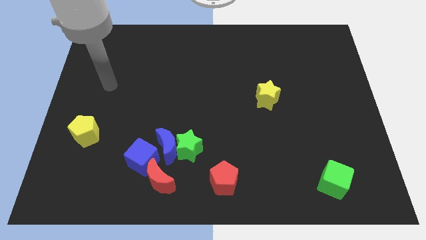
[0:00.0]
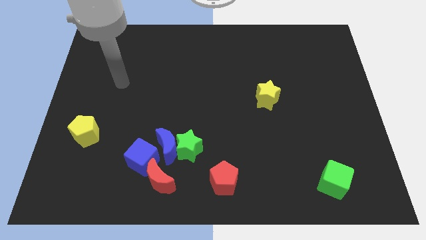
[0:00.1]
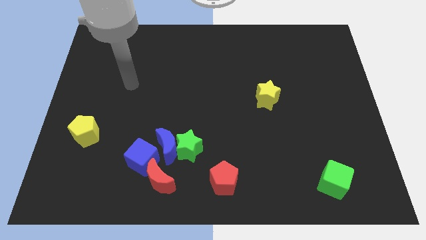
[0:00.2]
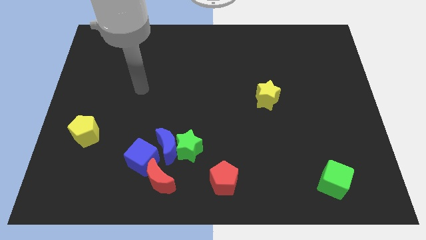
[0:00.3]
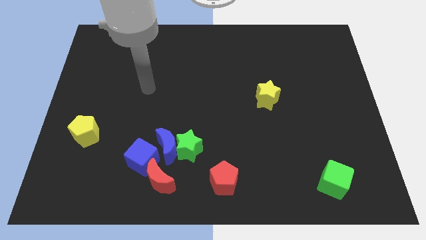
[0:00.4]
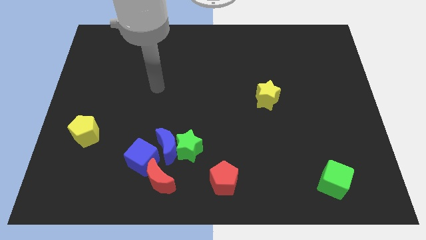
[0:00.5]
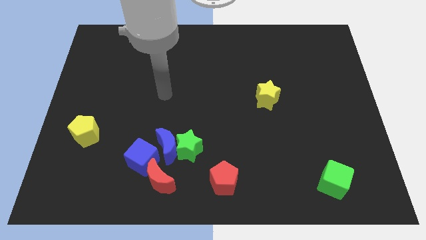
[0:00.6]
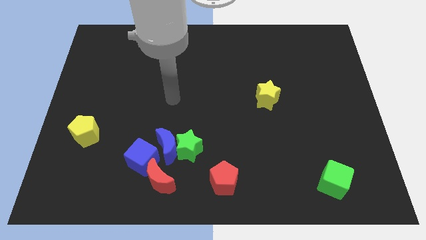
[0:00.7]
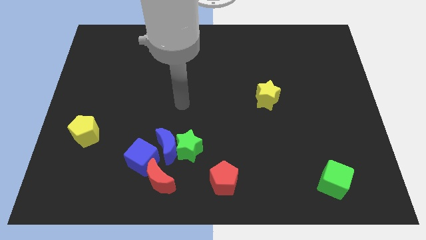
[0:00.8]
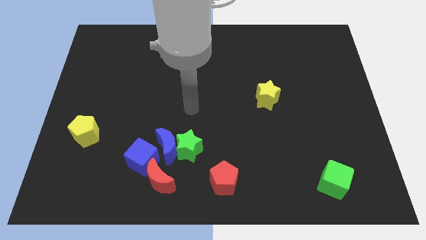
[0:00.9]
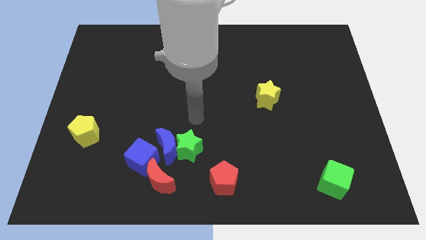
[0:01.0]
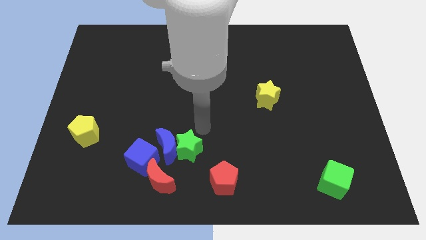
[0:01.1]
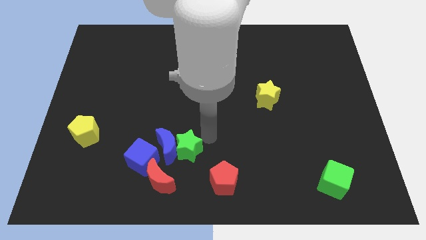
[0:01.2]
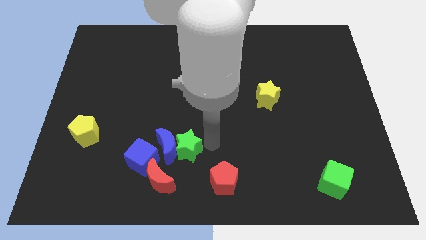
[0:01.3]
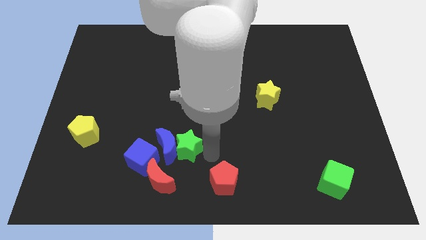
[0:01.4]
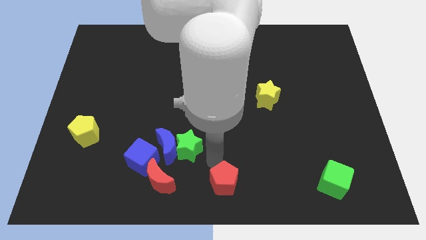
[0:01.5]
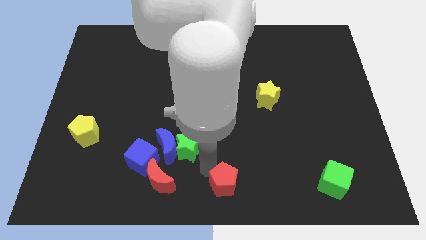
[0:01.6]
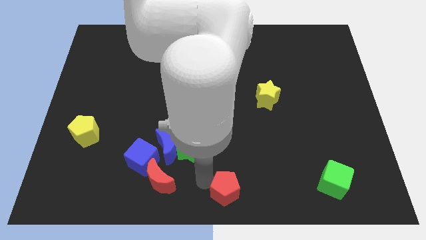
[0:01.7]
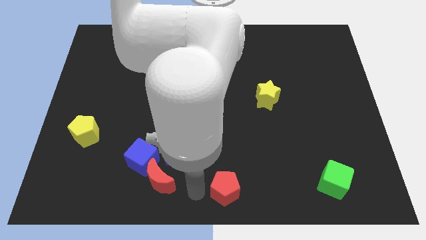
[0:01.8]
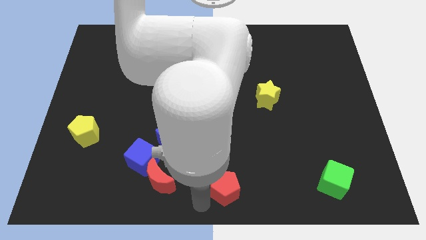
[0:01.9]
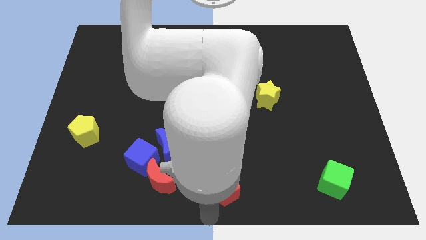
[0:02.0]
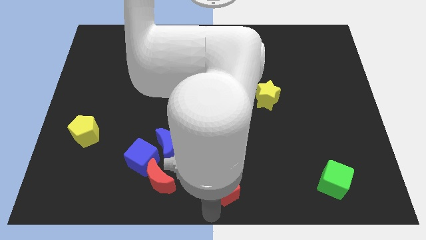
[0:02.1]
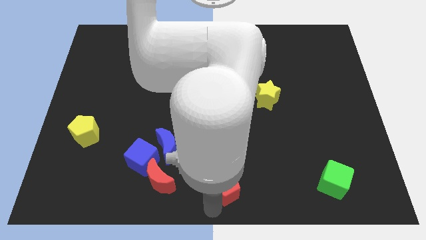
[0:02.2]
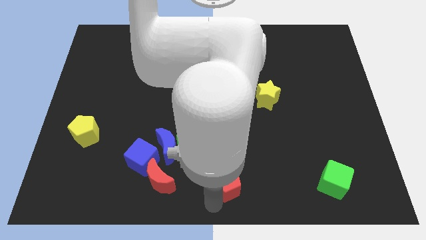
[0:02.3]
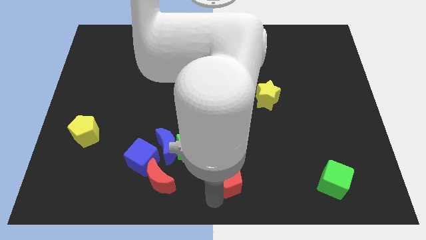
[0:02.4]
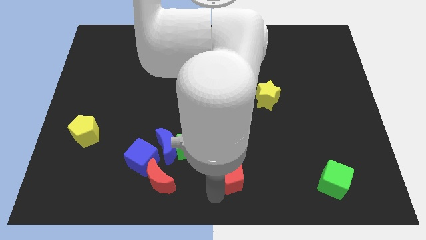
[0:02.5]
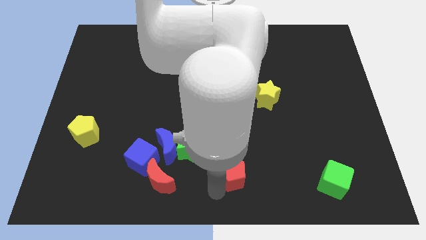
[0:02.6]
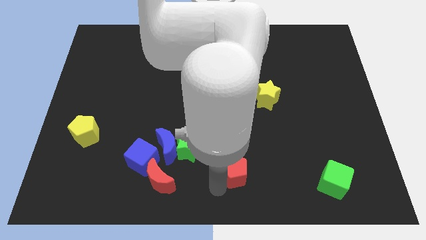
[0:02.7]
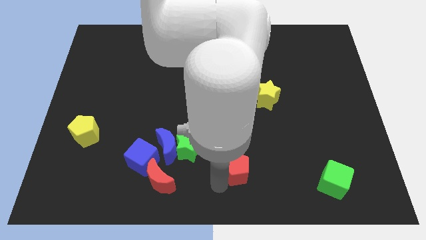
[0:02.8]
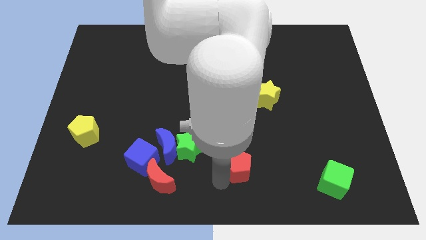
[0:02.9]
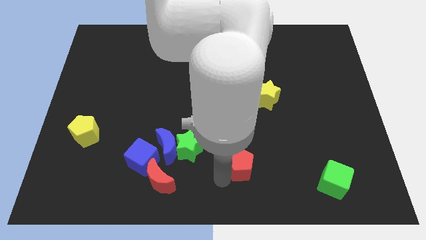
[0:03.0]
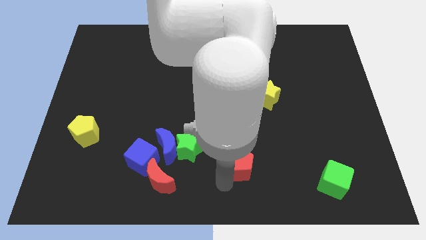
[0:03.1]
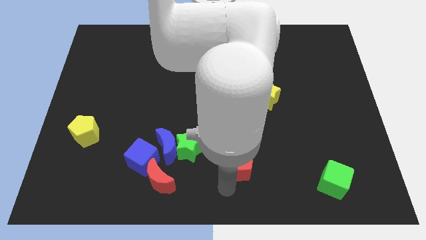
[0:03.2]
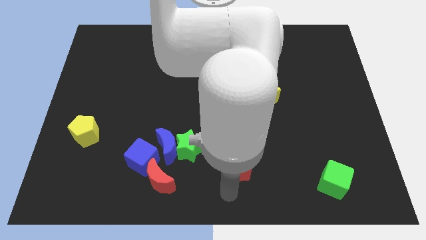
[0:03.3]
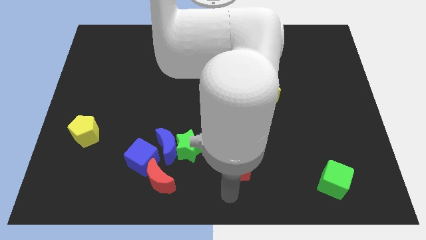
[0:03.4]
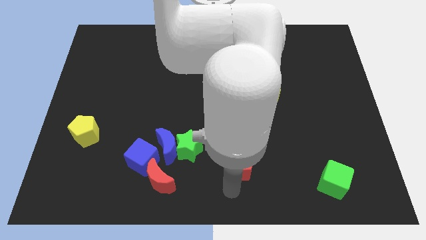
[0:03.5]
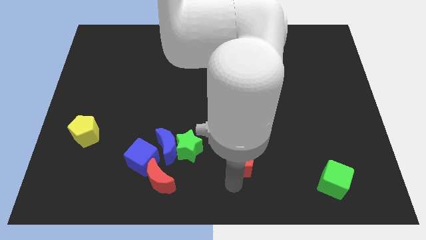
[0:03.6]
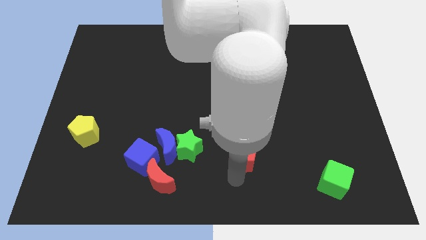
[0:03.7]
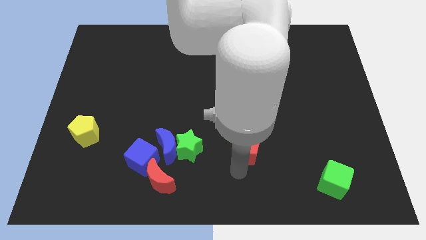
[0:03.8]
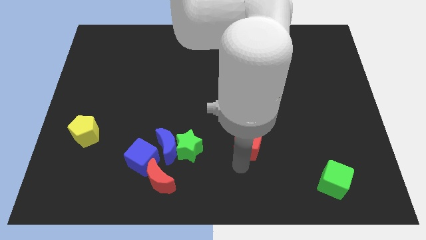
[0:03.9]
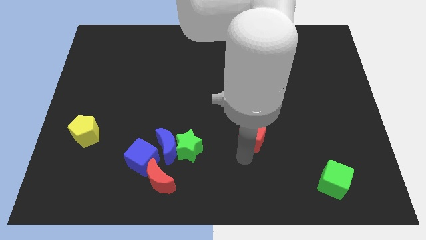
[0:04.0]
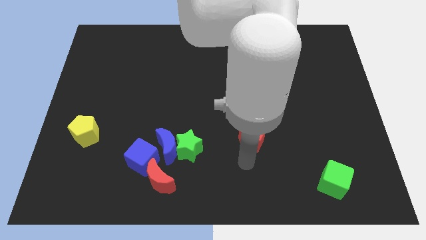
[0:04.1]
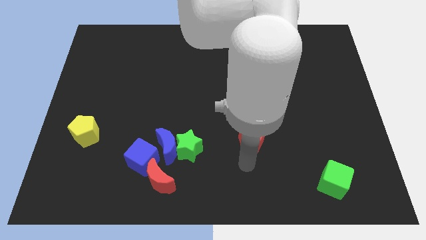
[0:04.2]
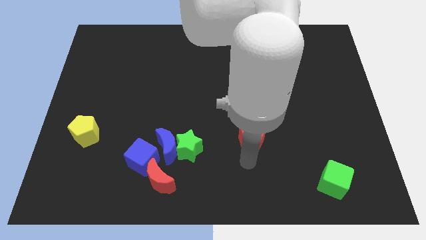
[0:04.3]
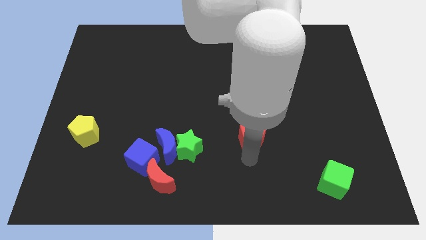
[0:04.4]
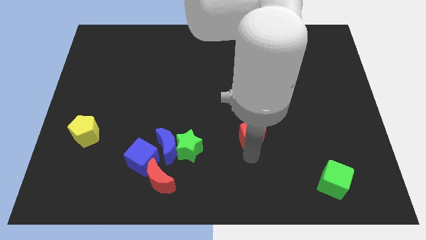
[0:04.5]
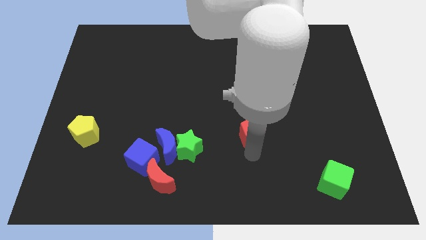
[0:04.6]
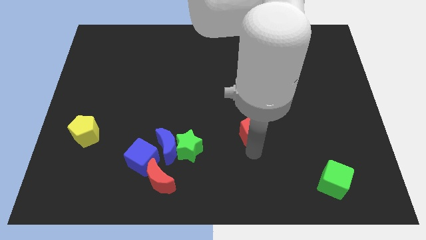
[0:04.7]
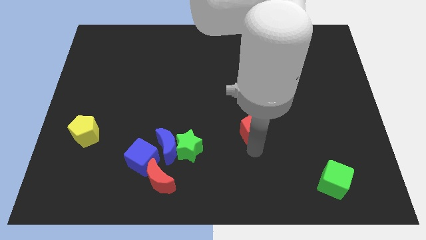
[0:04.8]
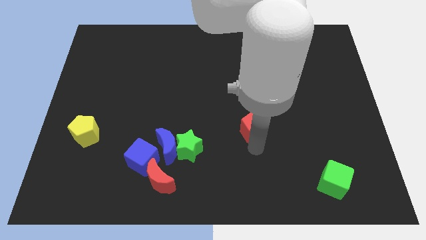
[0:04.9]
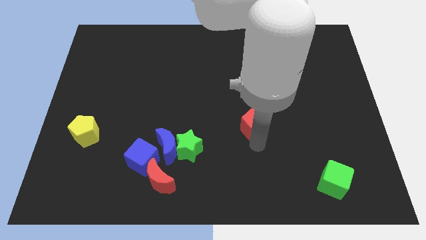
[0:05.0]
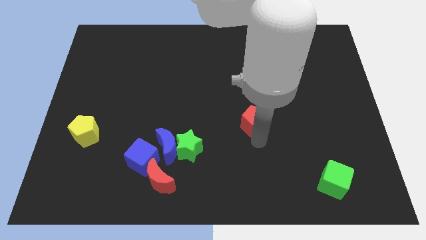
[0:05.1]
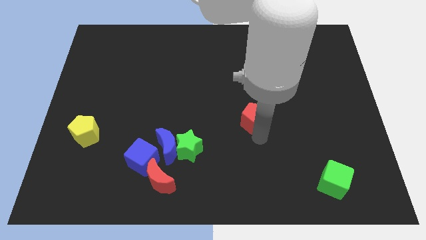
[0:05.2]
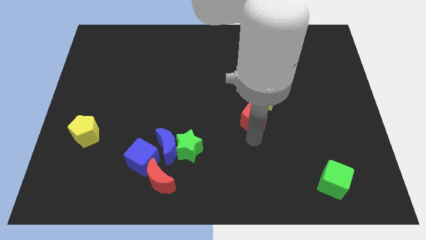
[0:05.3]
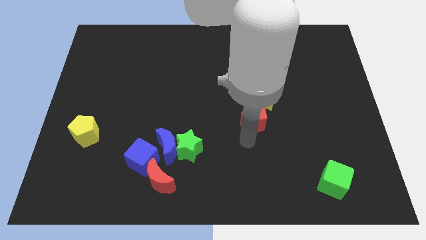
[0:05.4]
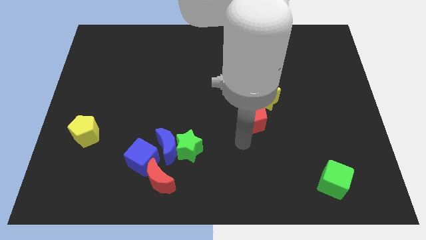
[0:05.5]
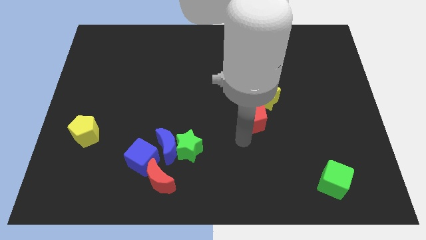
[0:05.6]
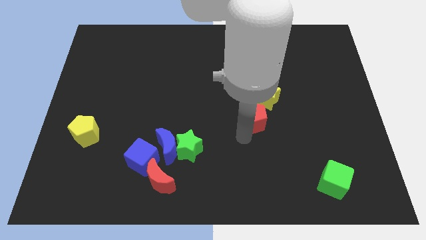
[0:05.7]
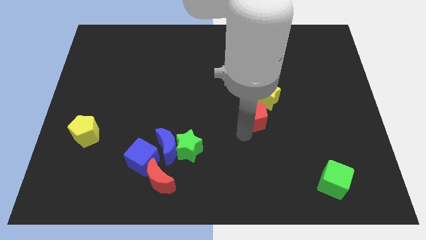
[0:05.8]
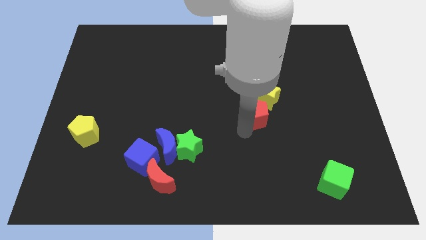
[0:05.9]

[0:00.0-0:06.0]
move the red pentagon towards the yellow star

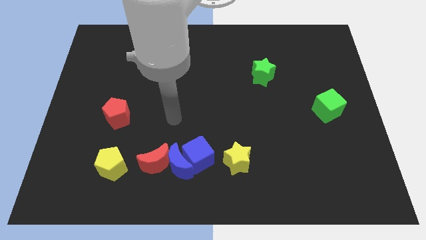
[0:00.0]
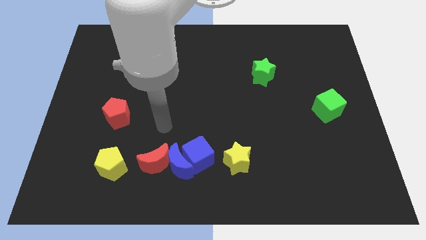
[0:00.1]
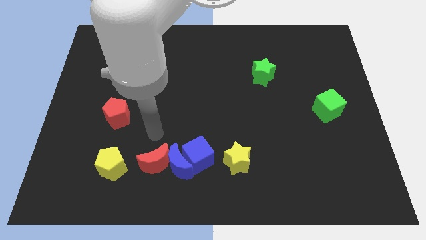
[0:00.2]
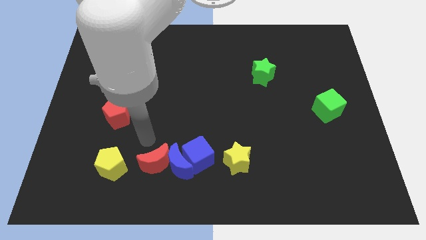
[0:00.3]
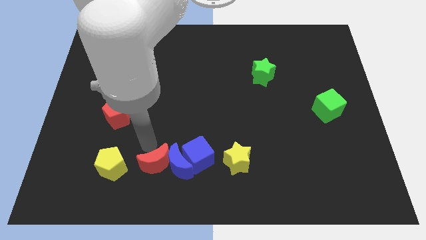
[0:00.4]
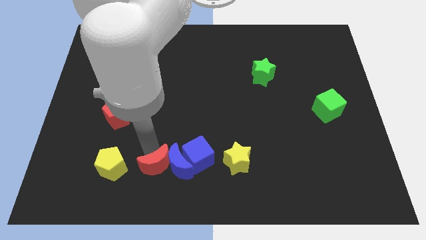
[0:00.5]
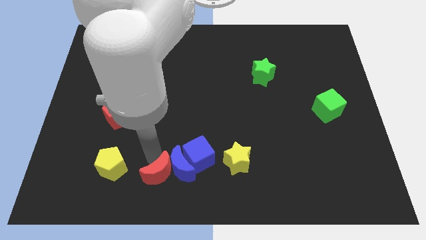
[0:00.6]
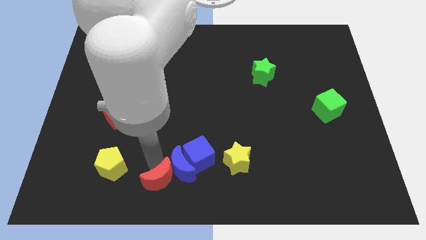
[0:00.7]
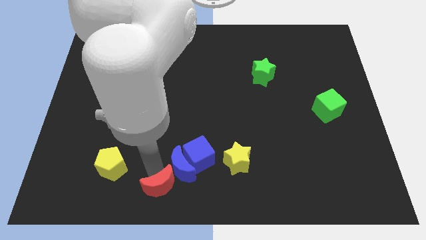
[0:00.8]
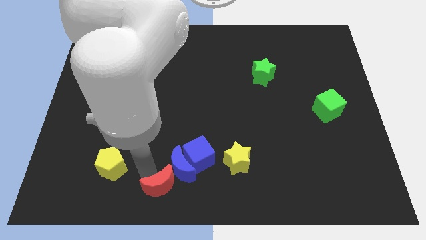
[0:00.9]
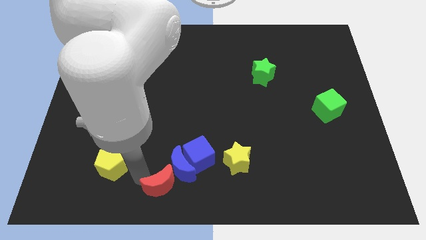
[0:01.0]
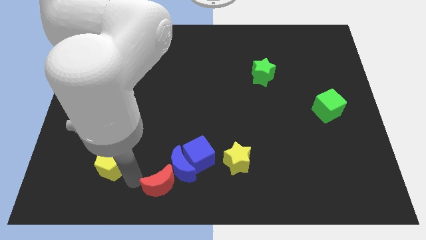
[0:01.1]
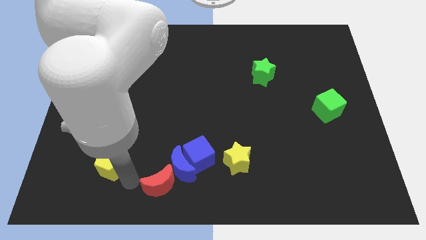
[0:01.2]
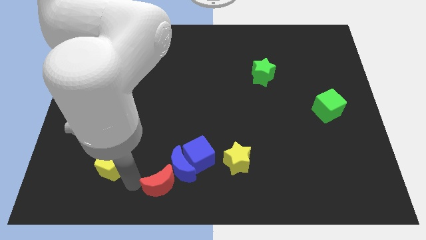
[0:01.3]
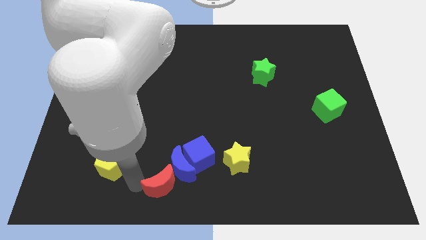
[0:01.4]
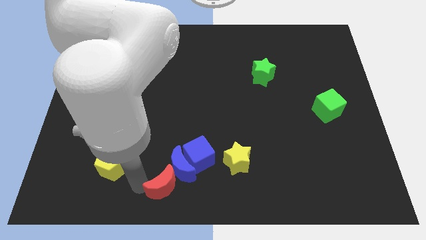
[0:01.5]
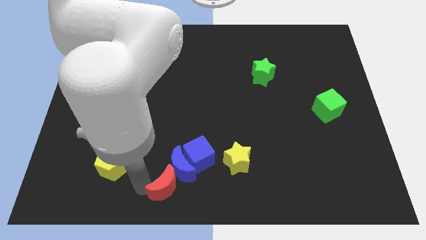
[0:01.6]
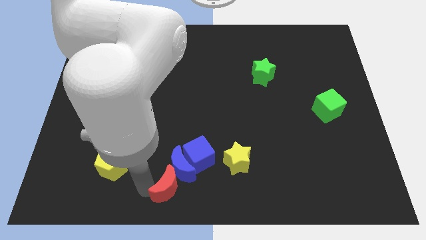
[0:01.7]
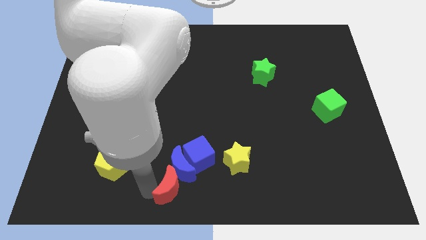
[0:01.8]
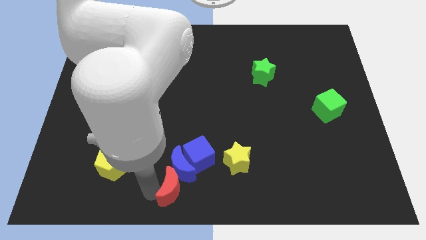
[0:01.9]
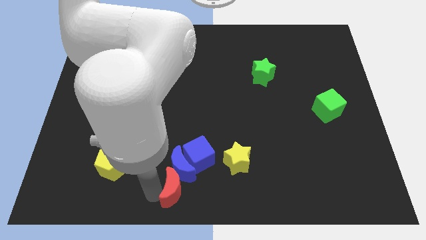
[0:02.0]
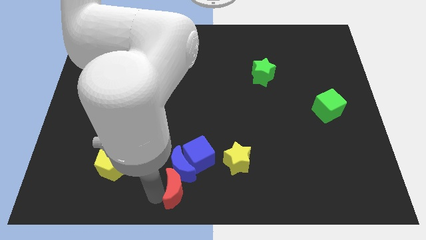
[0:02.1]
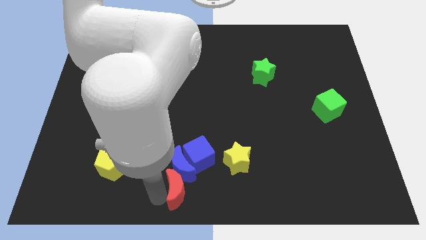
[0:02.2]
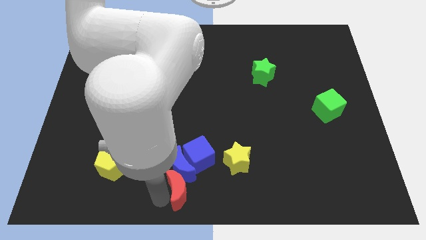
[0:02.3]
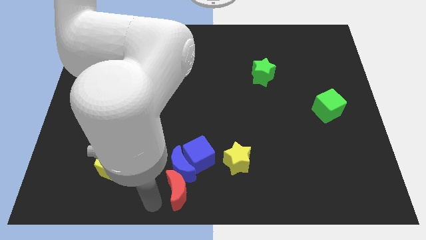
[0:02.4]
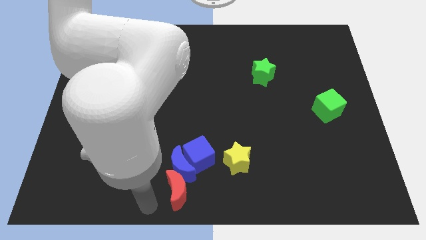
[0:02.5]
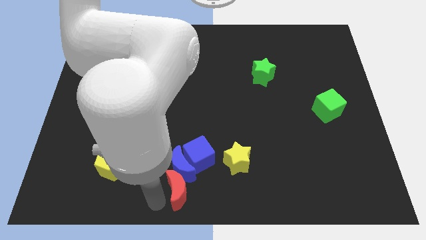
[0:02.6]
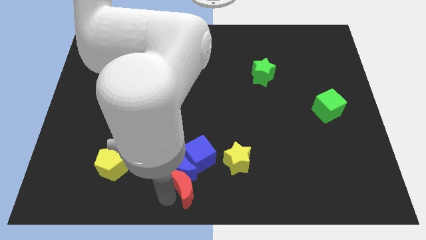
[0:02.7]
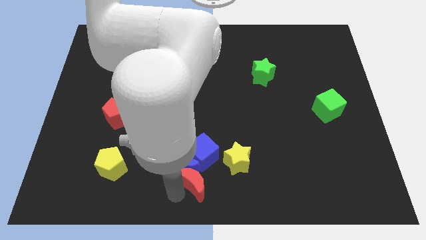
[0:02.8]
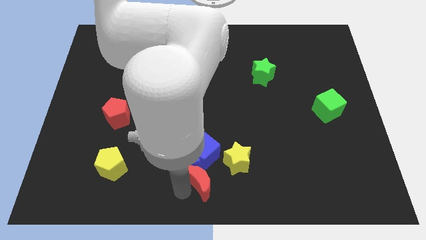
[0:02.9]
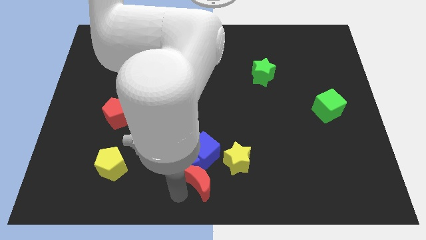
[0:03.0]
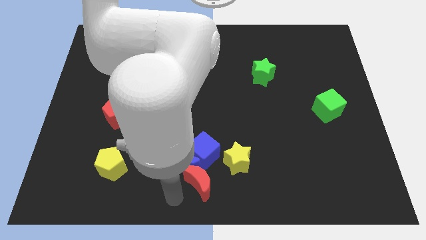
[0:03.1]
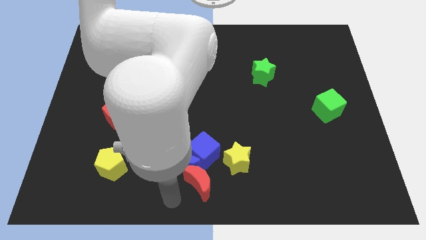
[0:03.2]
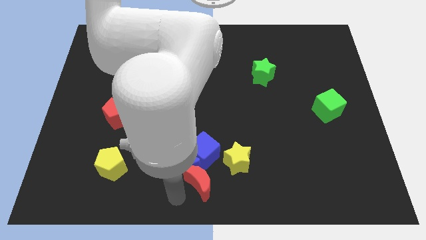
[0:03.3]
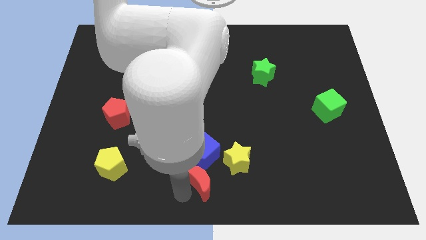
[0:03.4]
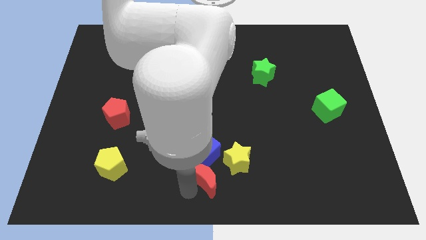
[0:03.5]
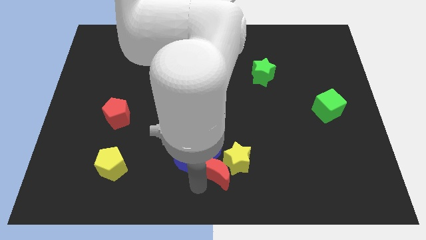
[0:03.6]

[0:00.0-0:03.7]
put the red moon next to the yellow star
